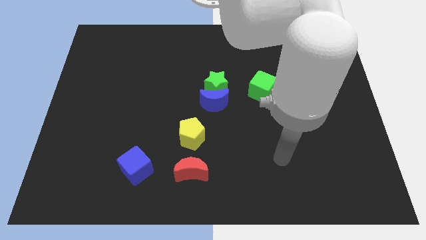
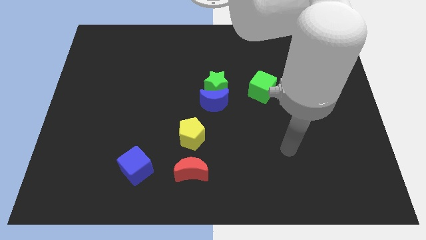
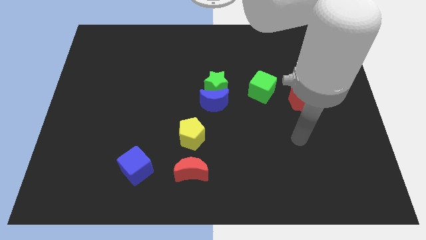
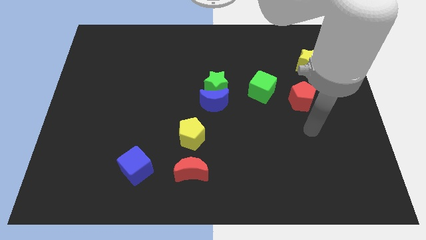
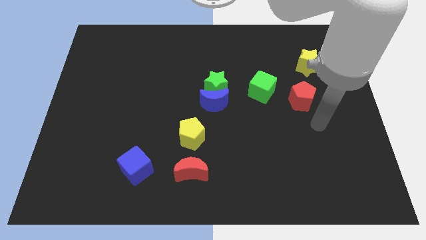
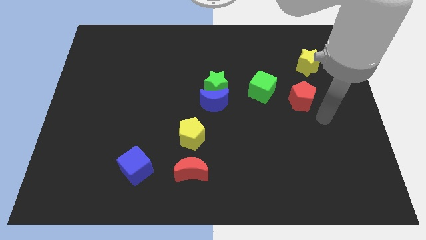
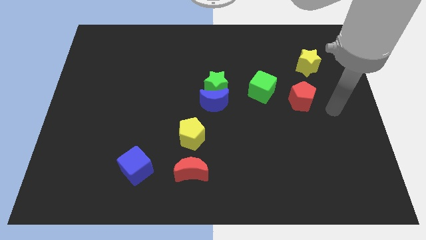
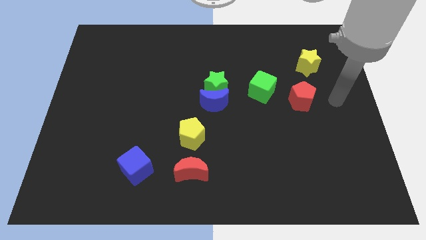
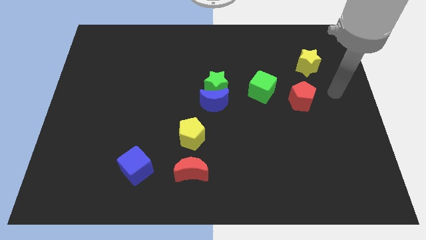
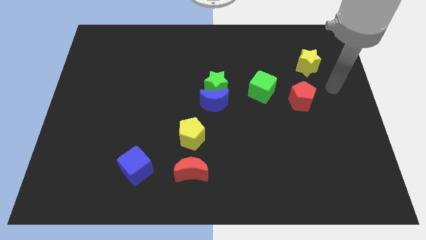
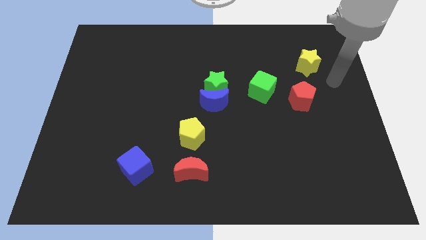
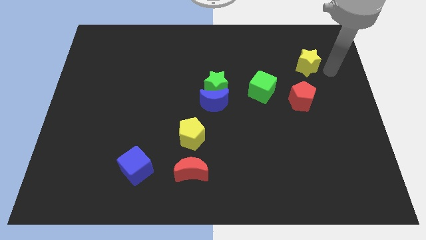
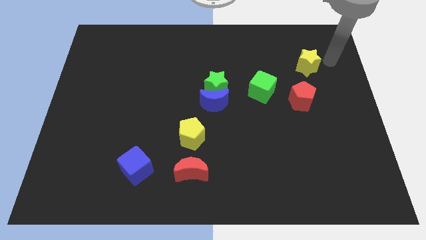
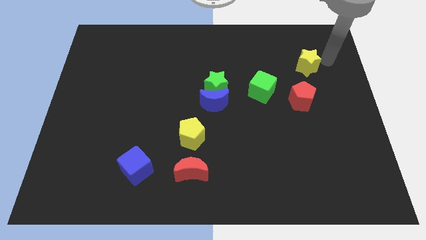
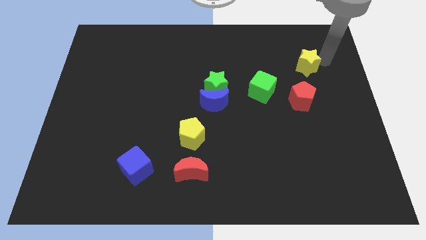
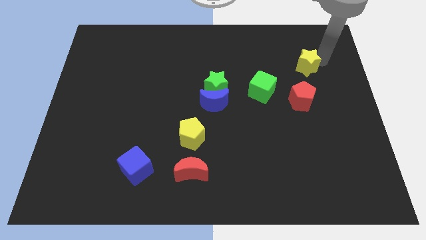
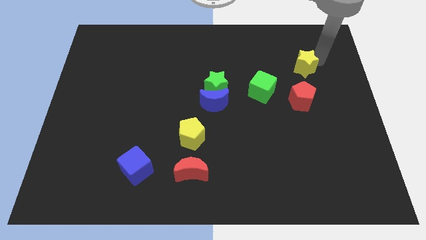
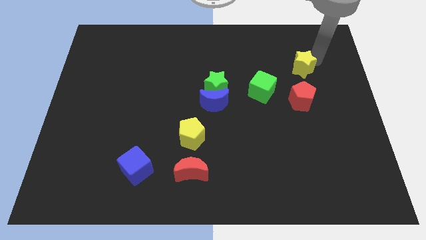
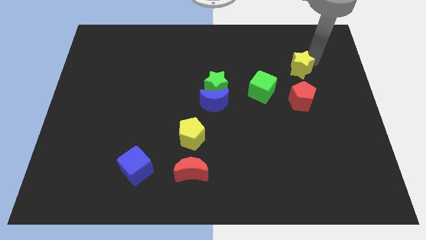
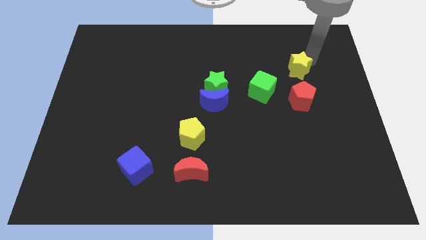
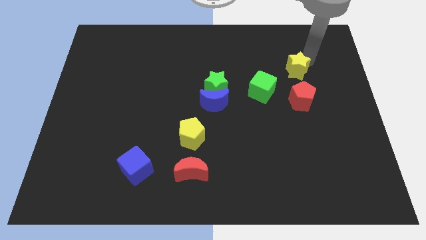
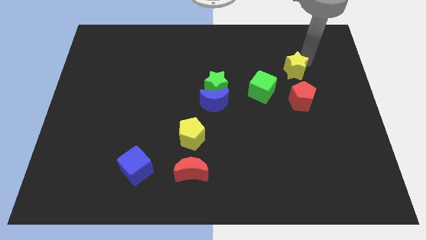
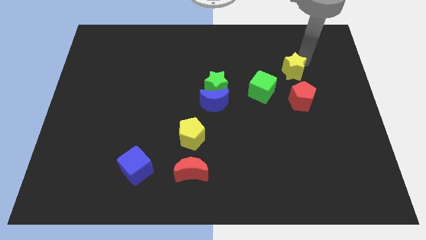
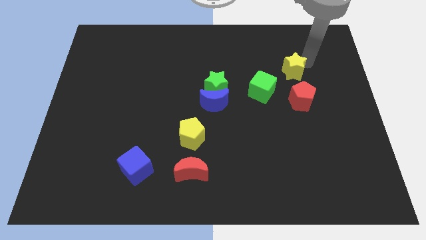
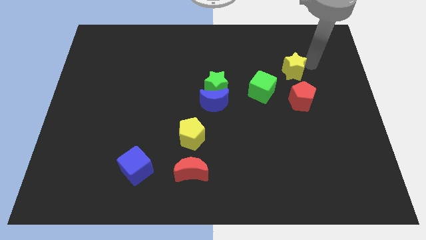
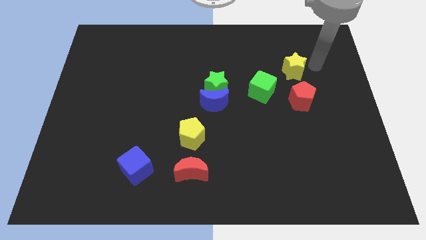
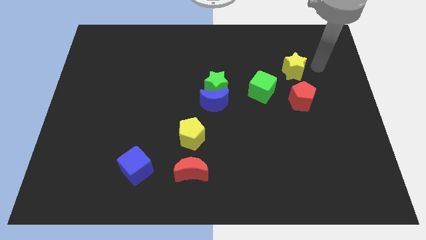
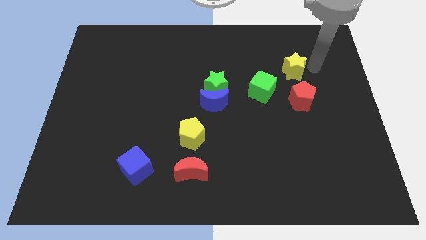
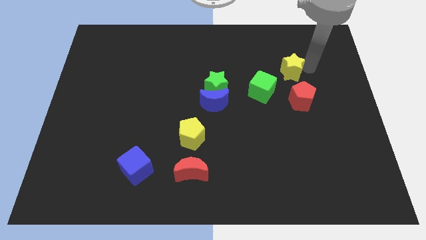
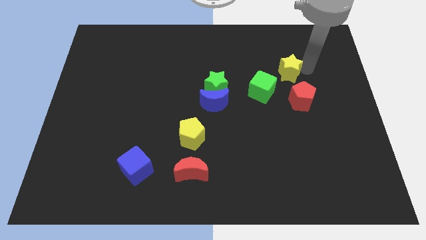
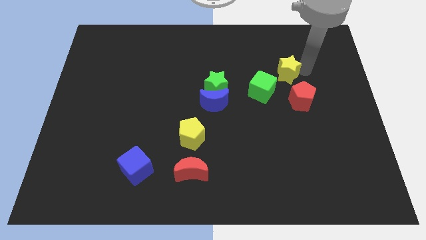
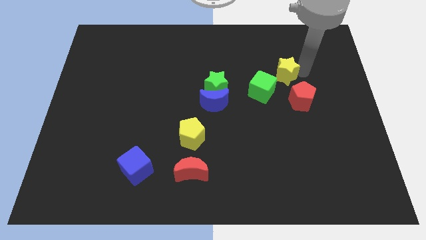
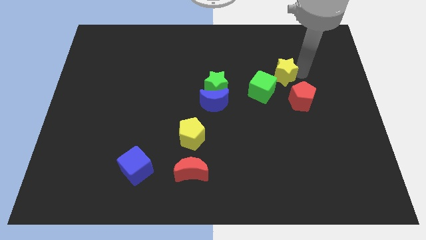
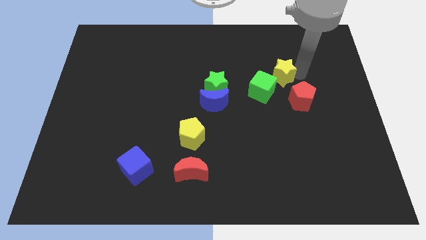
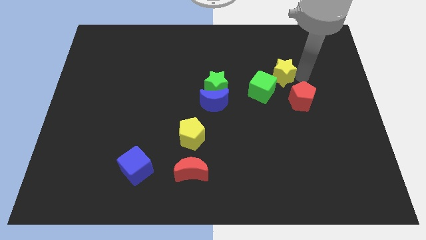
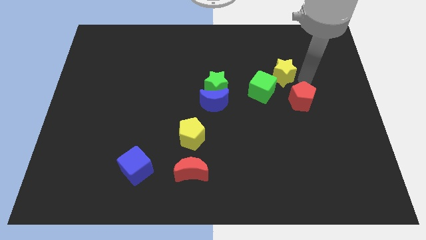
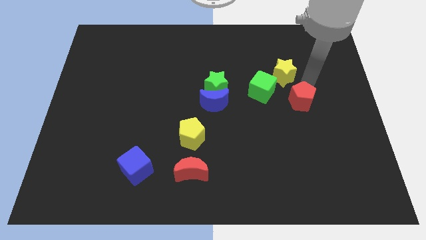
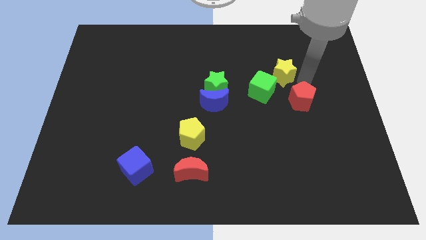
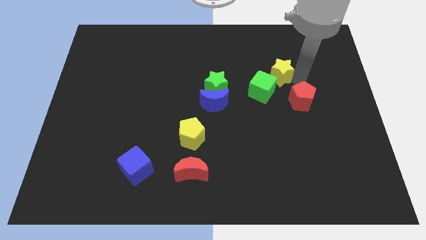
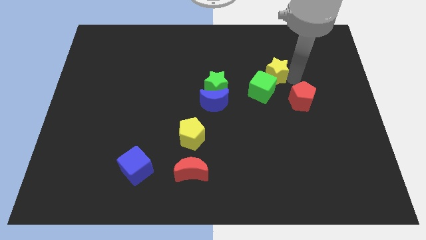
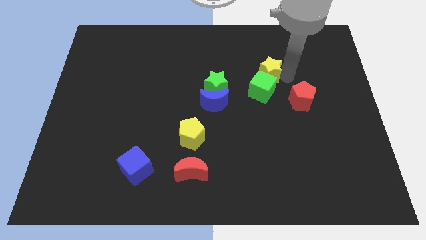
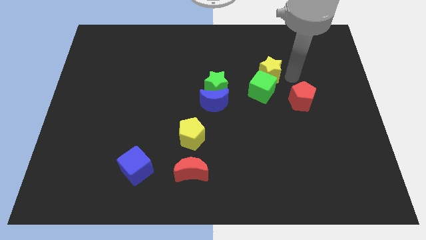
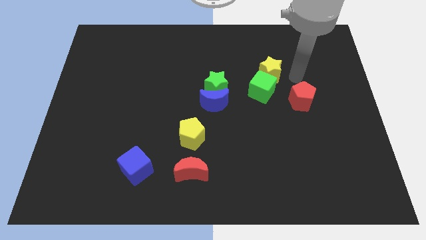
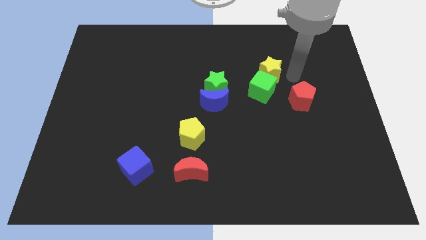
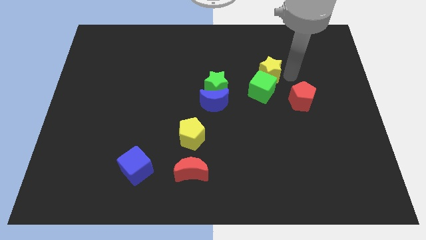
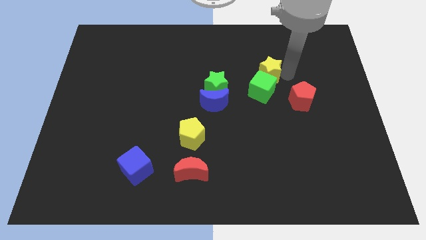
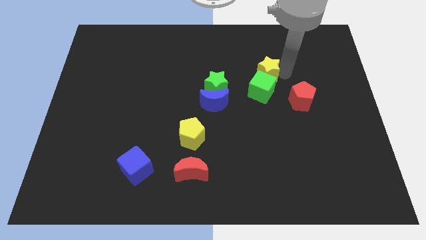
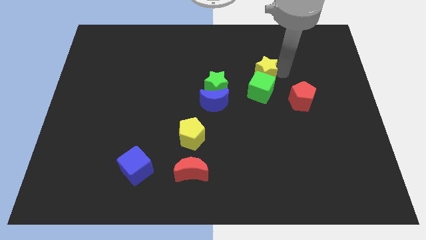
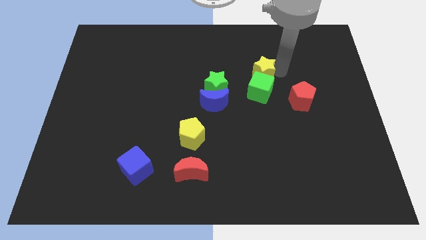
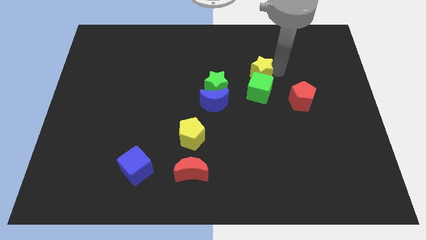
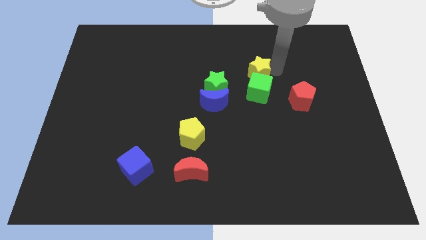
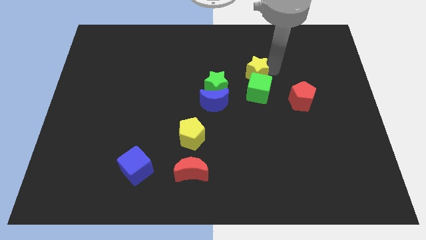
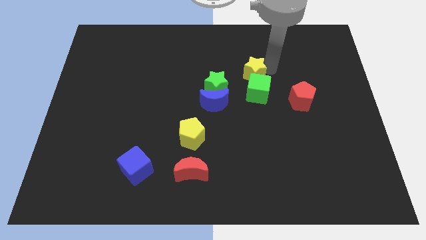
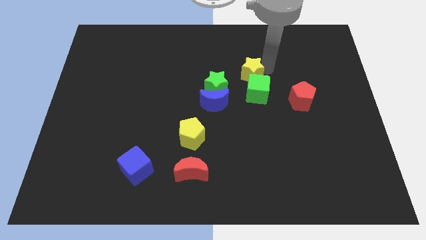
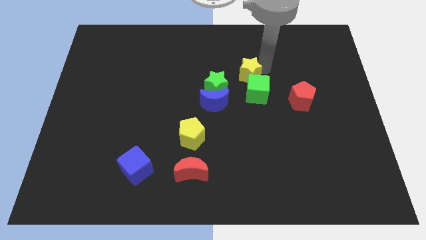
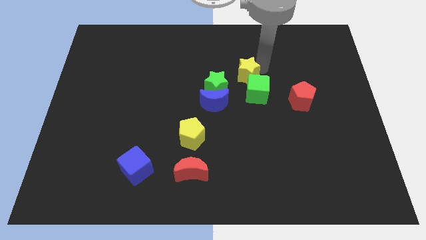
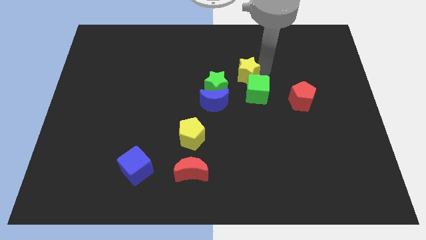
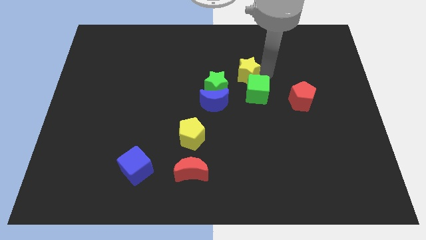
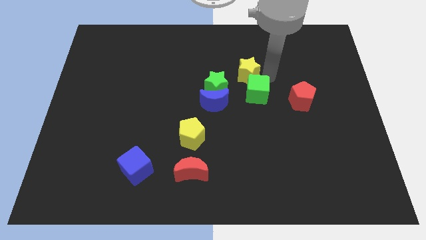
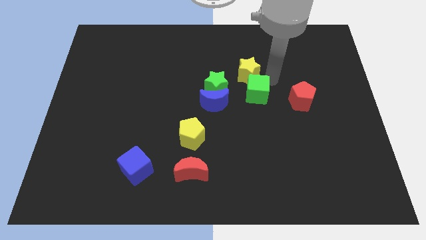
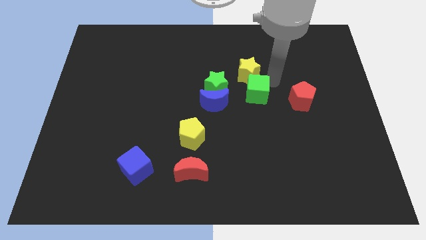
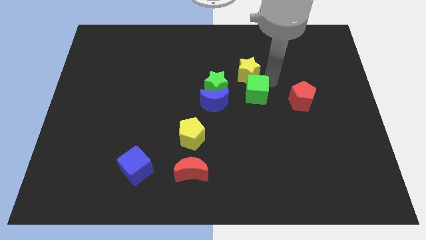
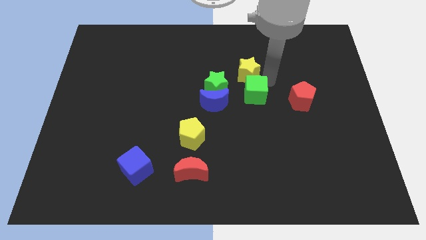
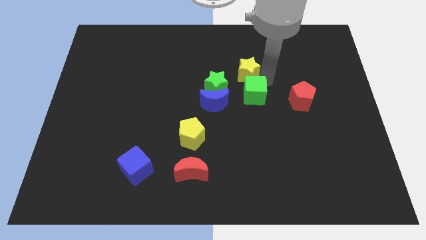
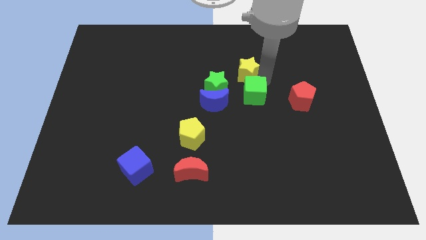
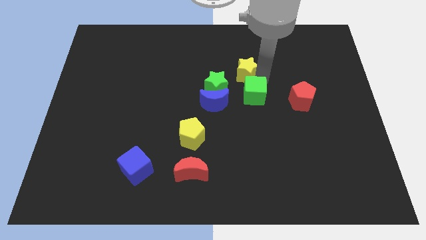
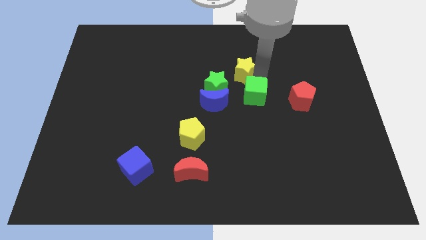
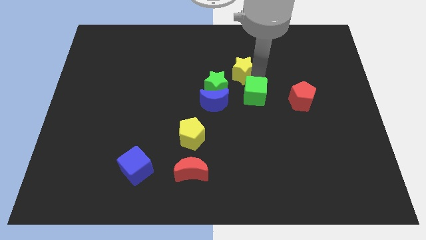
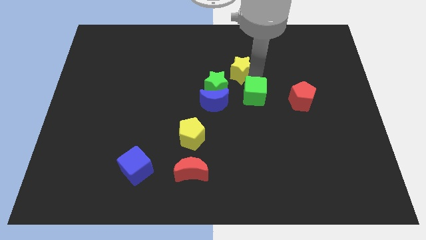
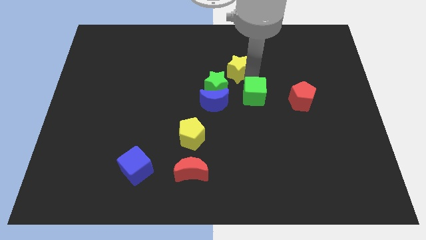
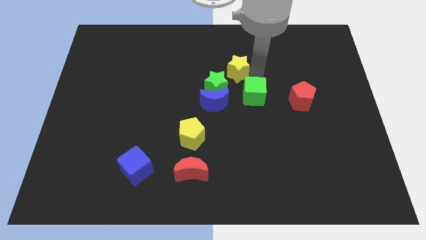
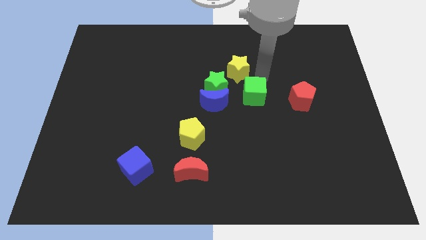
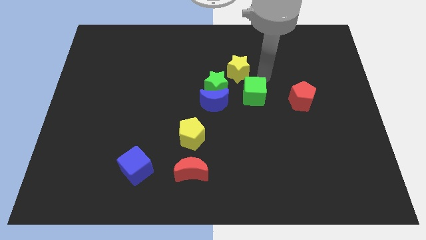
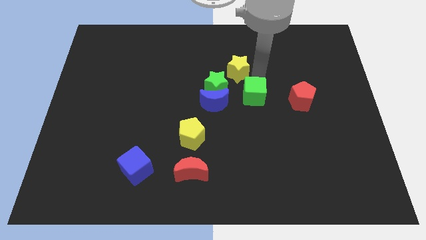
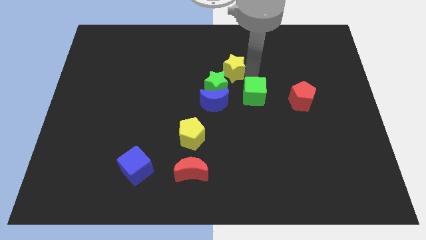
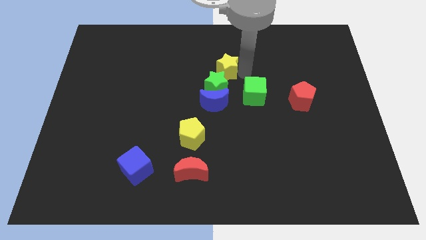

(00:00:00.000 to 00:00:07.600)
move the yellow star to the left

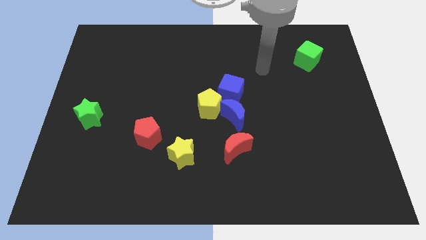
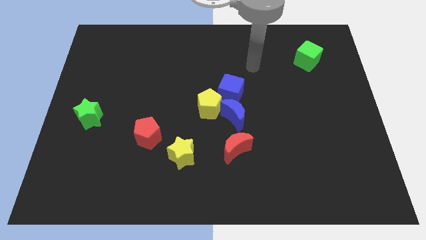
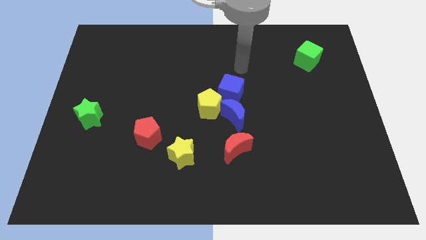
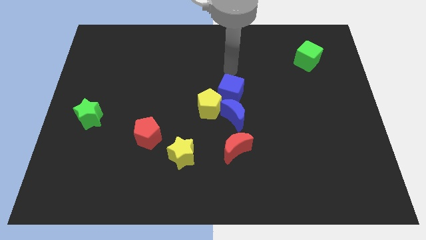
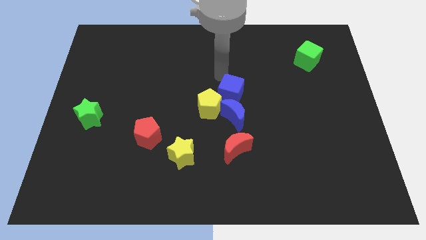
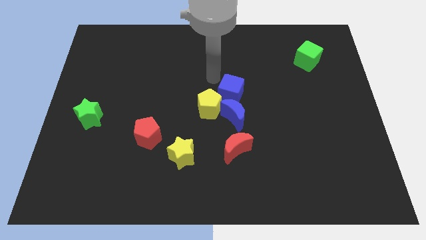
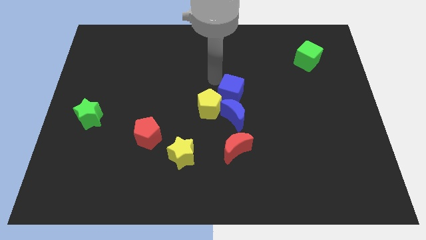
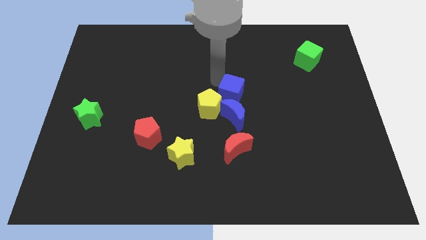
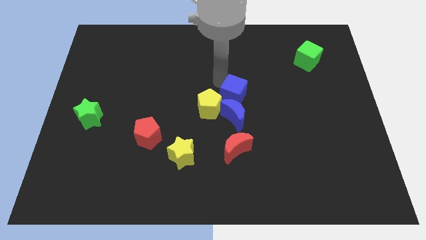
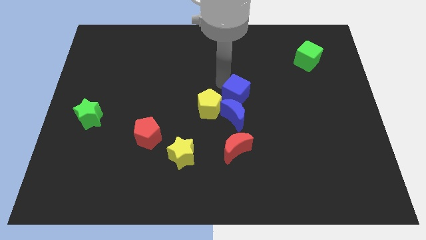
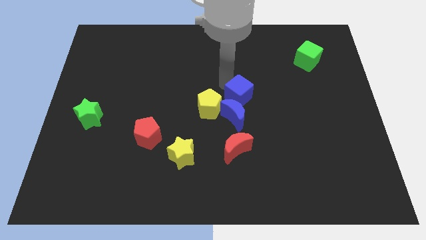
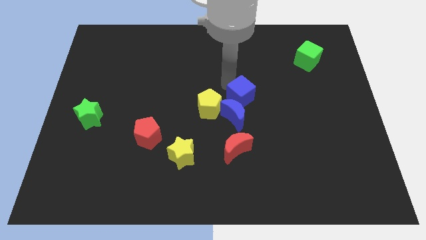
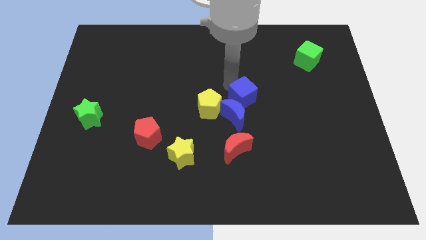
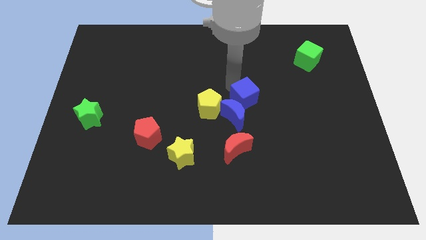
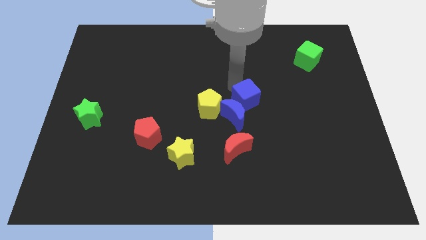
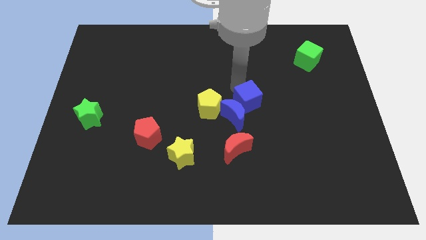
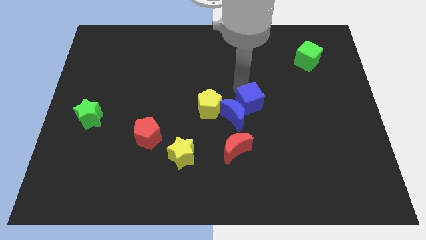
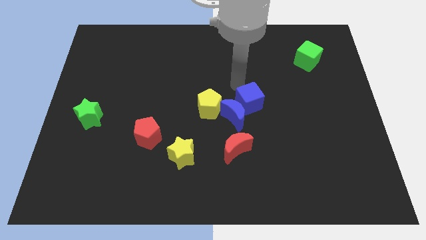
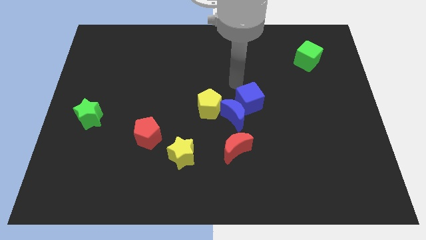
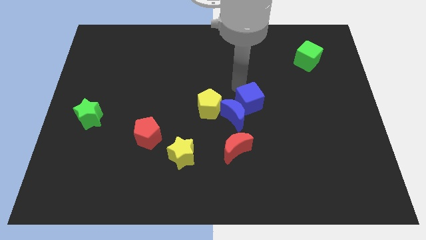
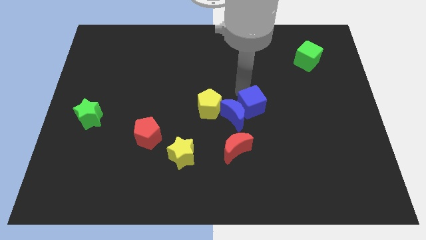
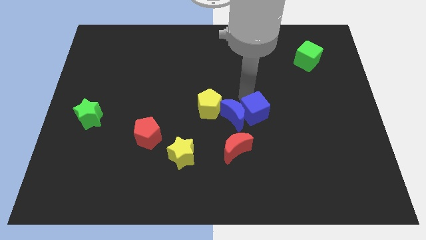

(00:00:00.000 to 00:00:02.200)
slightly slide the blue cube downwards and to the right
